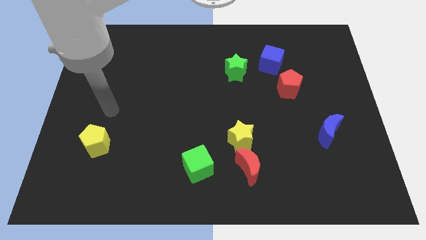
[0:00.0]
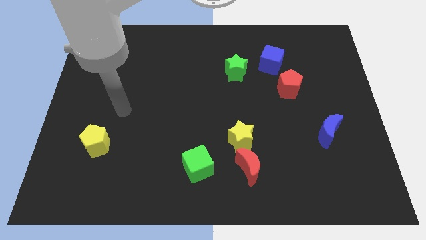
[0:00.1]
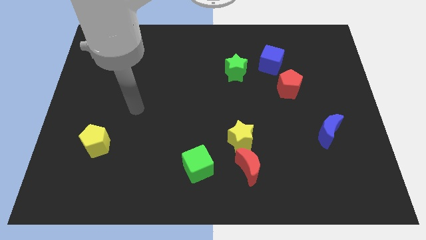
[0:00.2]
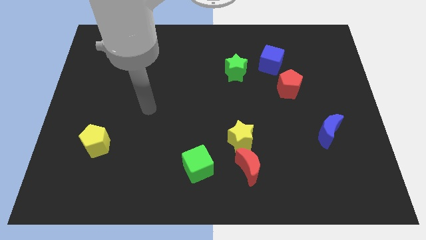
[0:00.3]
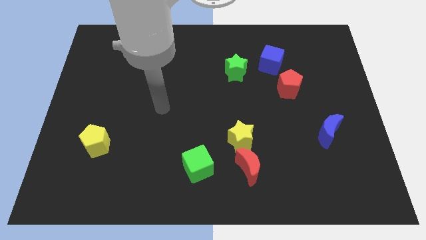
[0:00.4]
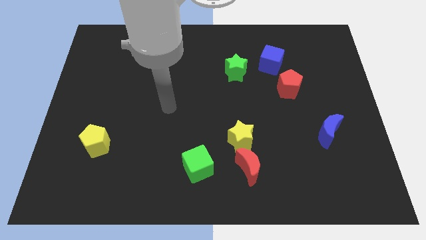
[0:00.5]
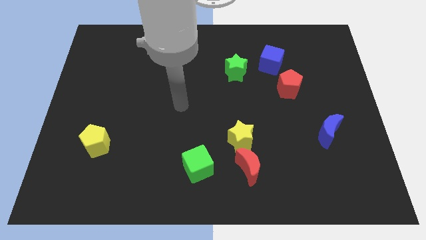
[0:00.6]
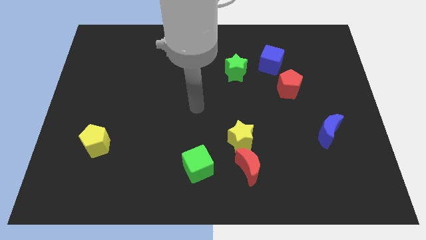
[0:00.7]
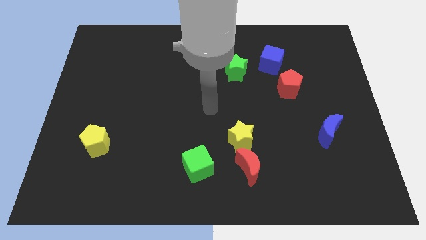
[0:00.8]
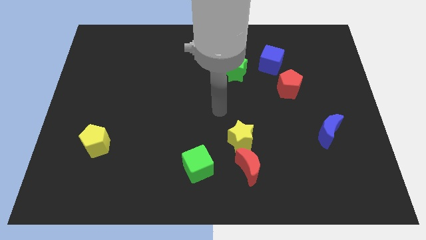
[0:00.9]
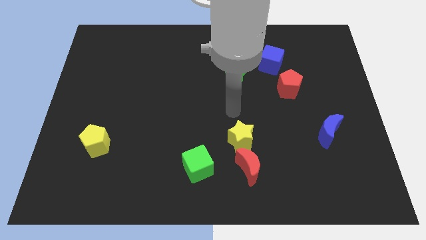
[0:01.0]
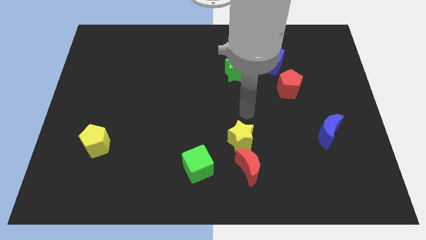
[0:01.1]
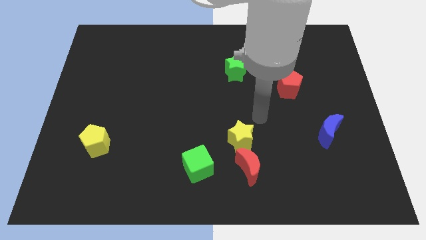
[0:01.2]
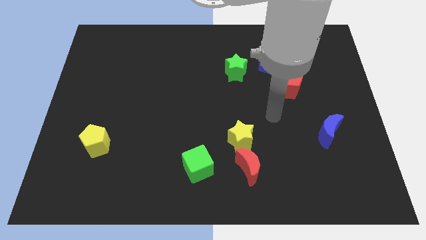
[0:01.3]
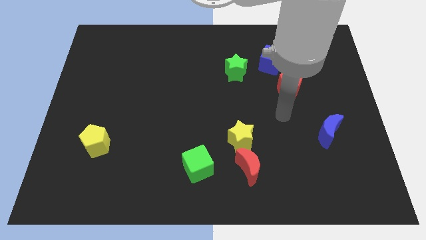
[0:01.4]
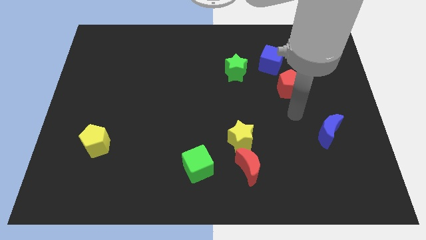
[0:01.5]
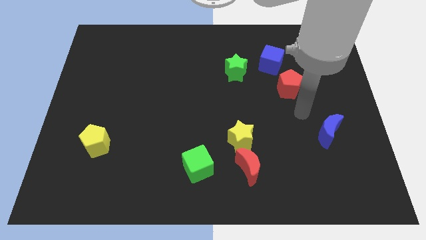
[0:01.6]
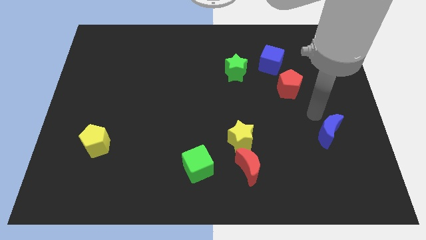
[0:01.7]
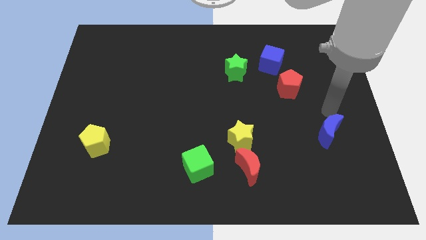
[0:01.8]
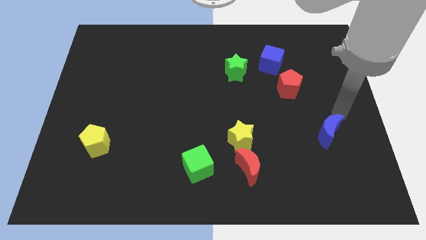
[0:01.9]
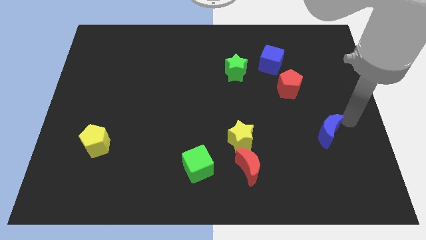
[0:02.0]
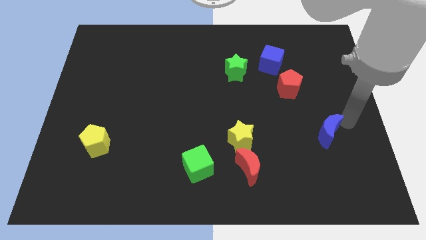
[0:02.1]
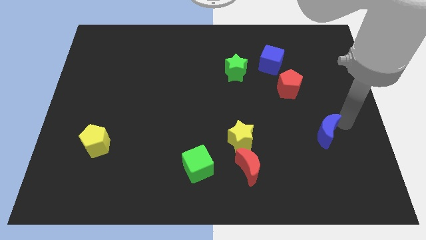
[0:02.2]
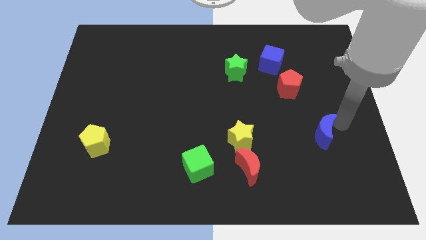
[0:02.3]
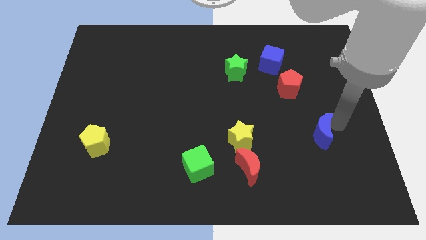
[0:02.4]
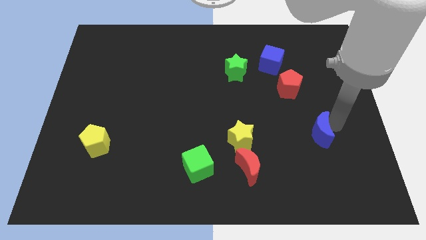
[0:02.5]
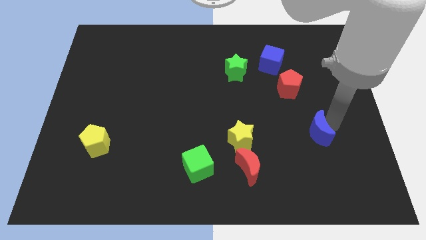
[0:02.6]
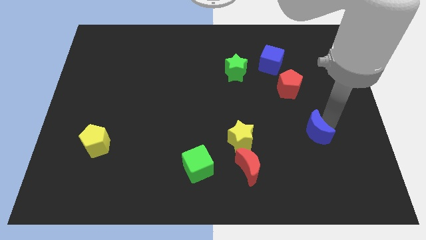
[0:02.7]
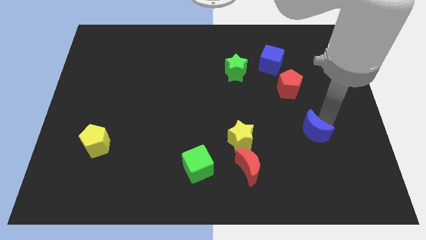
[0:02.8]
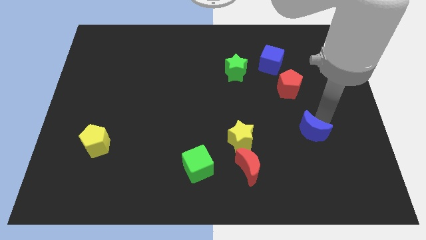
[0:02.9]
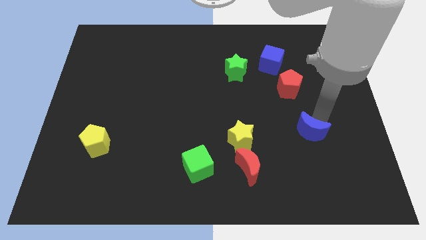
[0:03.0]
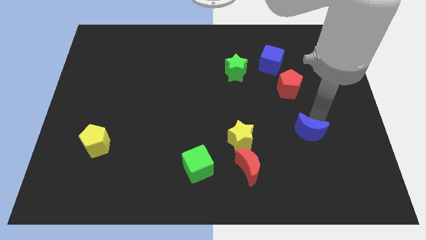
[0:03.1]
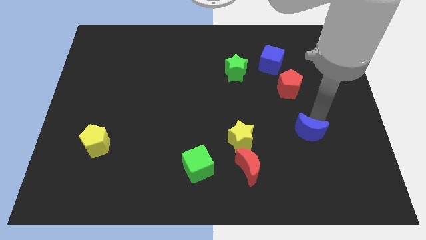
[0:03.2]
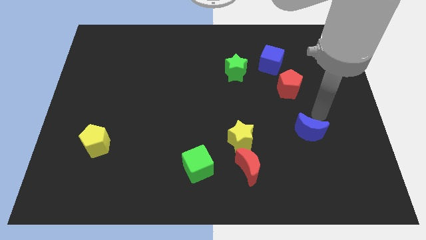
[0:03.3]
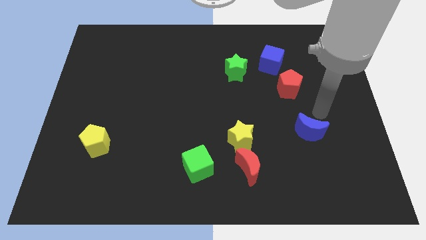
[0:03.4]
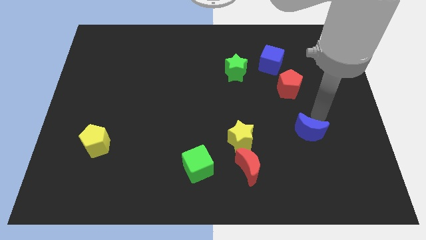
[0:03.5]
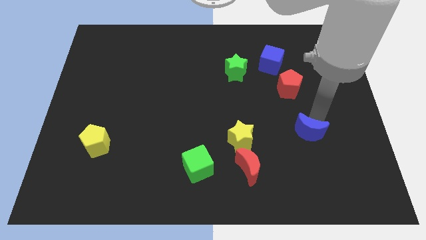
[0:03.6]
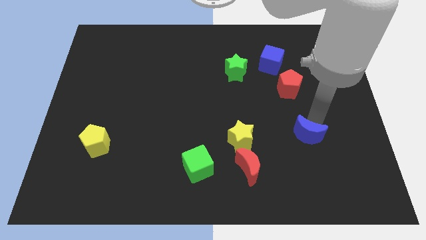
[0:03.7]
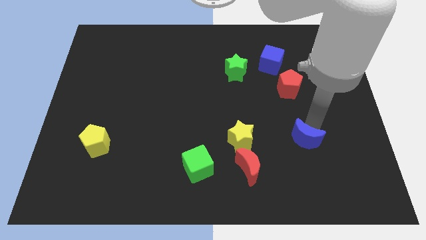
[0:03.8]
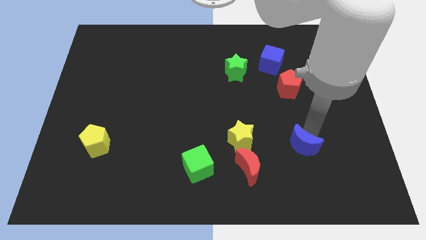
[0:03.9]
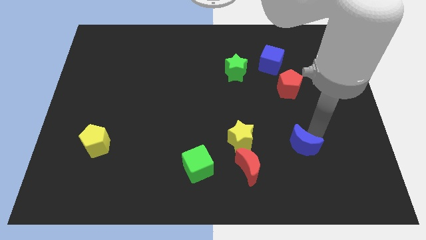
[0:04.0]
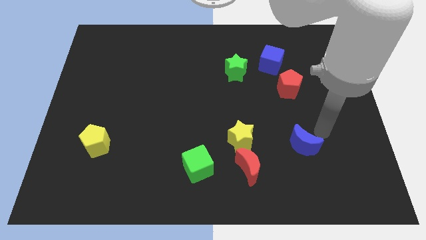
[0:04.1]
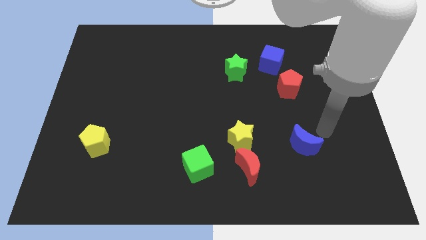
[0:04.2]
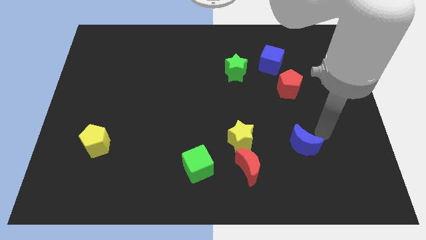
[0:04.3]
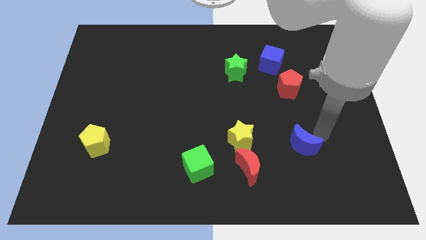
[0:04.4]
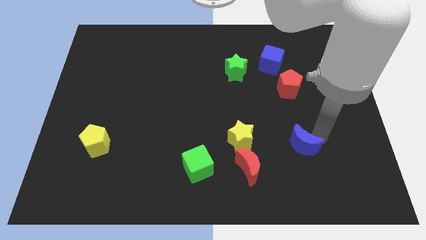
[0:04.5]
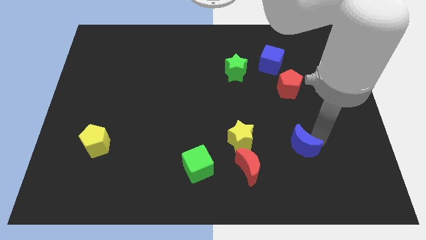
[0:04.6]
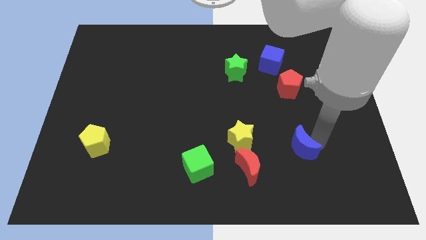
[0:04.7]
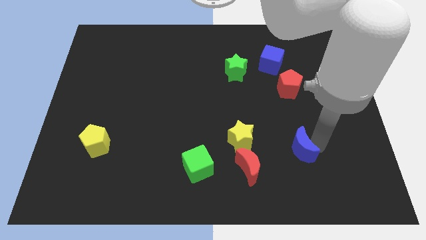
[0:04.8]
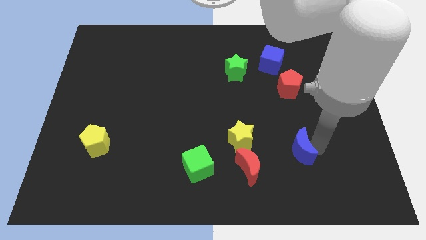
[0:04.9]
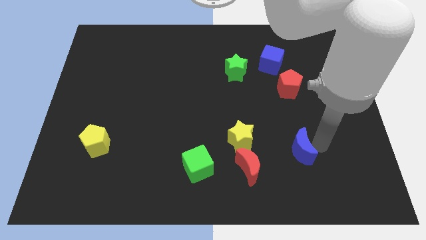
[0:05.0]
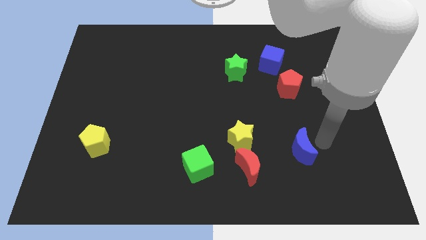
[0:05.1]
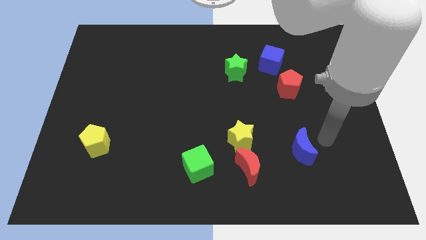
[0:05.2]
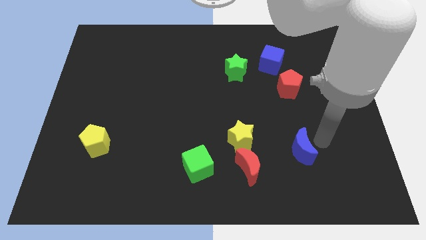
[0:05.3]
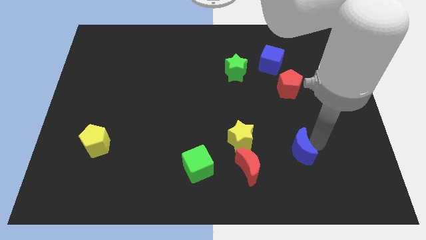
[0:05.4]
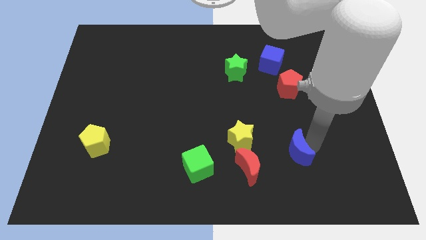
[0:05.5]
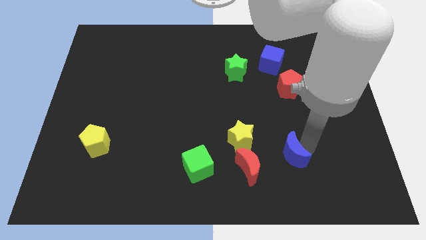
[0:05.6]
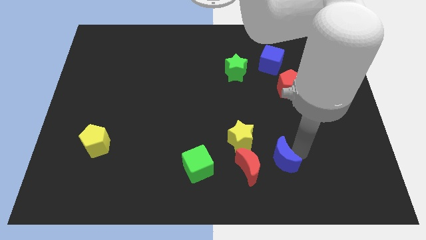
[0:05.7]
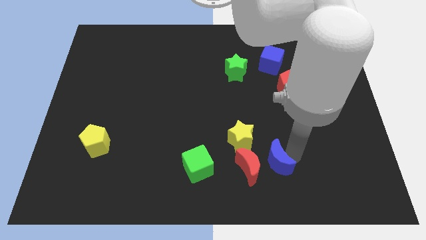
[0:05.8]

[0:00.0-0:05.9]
slide the blue moon next to the red moon

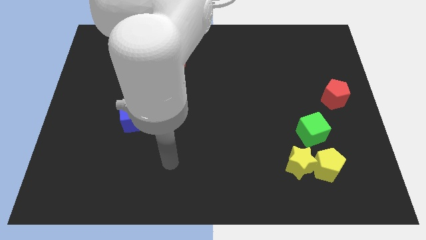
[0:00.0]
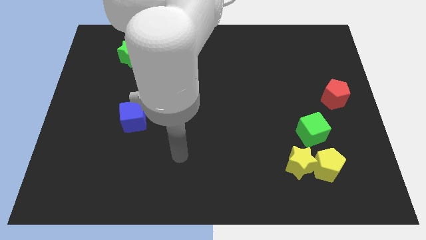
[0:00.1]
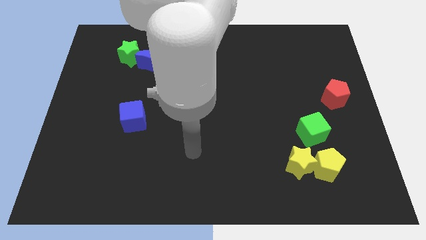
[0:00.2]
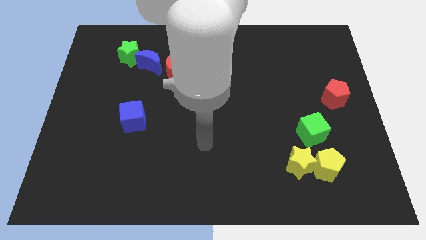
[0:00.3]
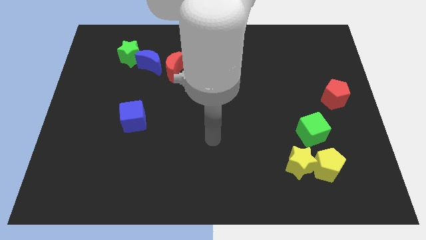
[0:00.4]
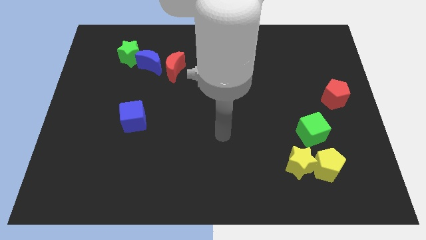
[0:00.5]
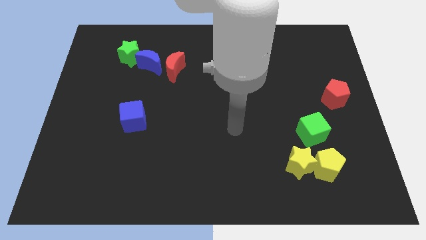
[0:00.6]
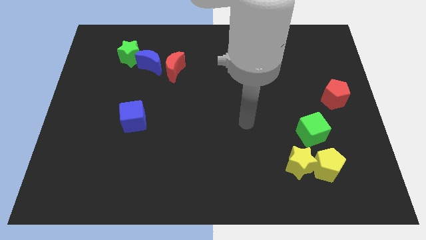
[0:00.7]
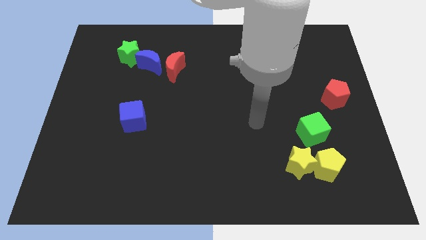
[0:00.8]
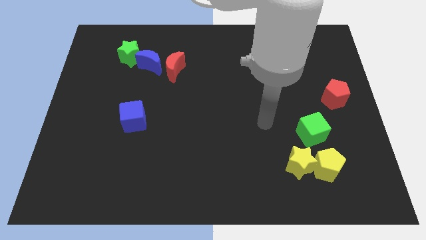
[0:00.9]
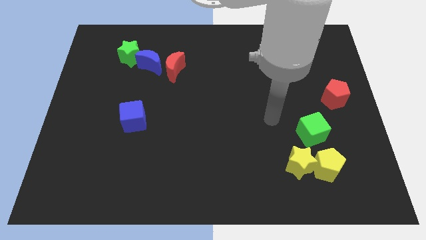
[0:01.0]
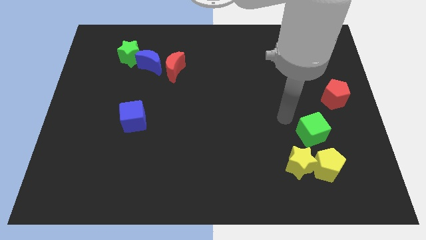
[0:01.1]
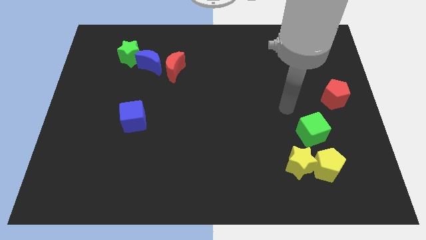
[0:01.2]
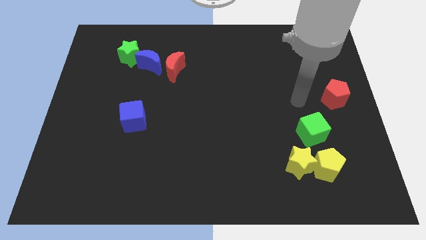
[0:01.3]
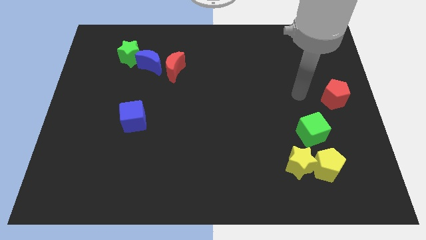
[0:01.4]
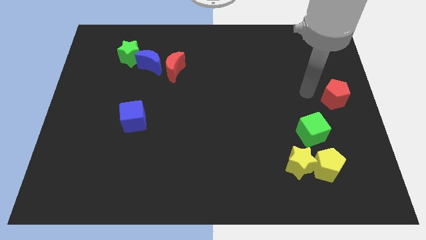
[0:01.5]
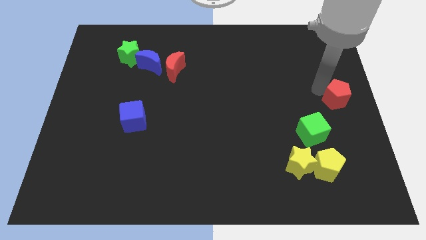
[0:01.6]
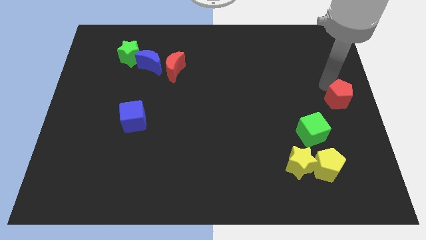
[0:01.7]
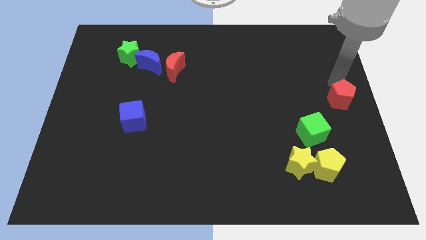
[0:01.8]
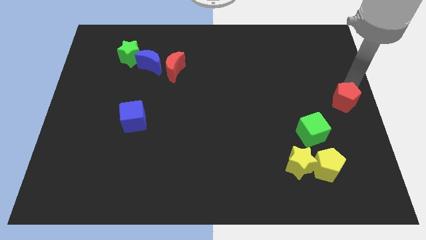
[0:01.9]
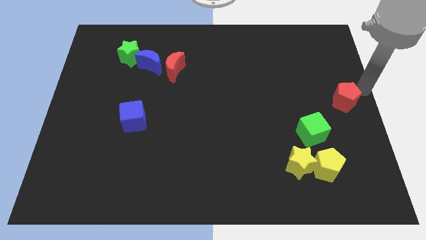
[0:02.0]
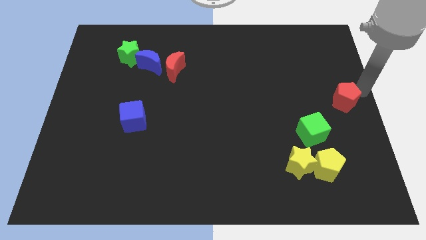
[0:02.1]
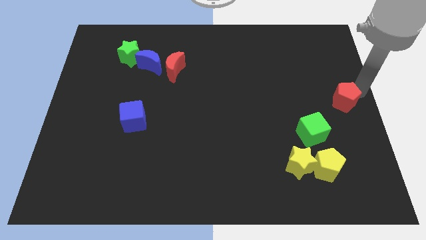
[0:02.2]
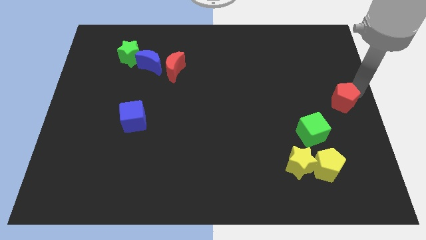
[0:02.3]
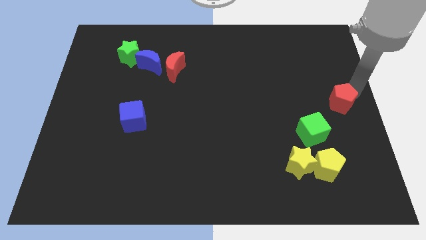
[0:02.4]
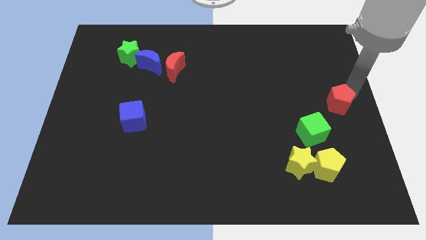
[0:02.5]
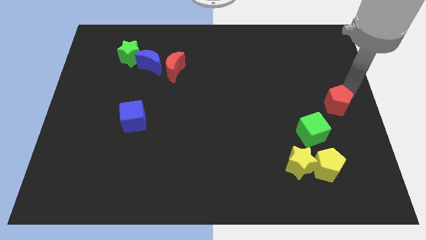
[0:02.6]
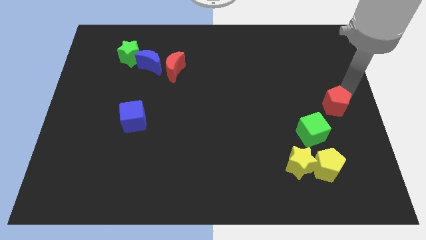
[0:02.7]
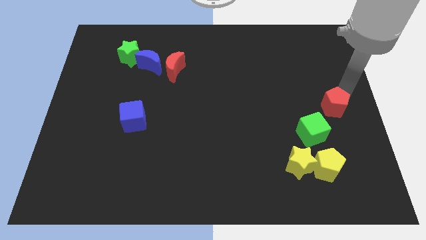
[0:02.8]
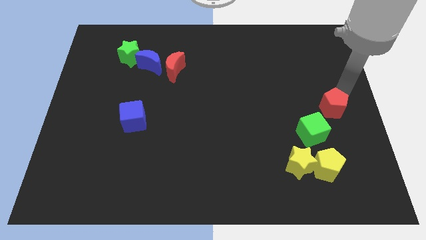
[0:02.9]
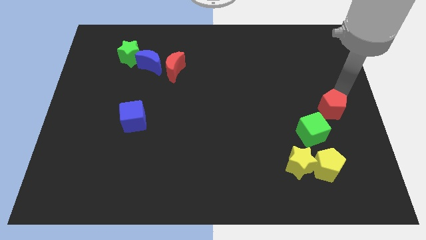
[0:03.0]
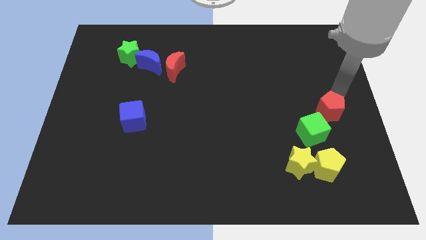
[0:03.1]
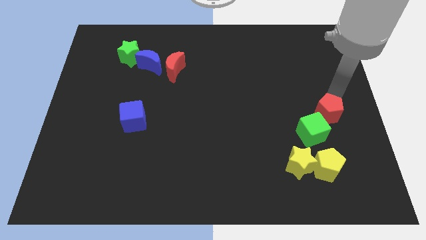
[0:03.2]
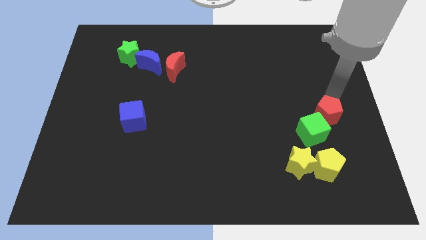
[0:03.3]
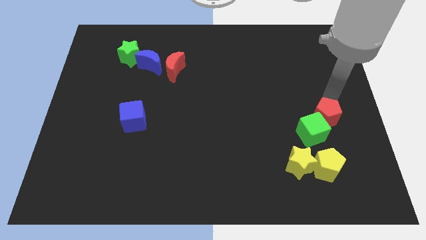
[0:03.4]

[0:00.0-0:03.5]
put the red pentagon close to the green cube
